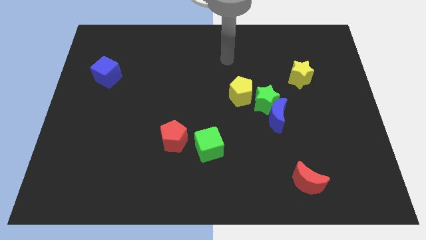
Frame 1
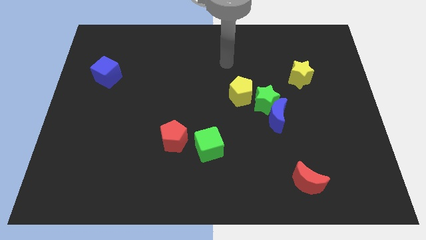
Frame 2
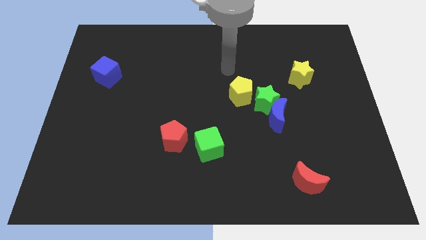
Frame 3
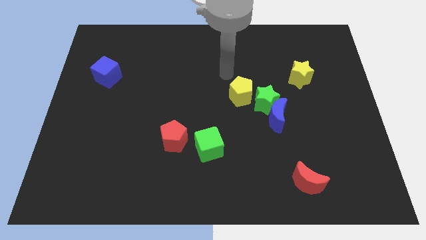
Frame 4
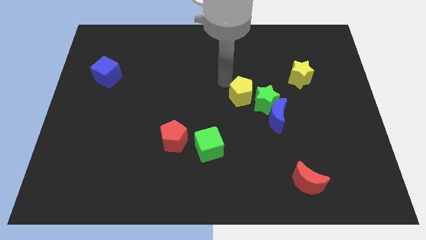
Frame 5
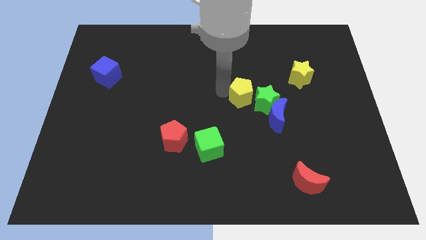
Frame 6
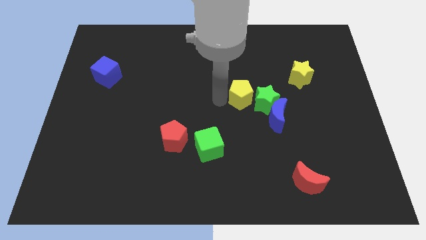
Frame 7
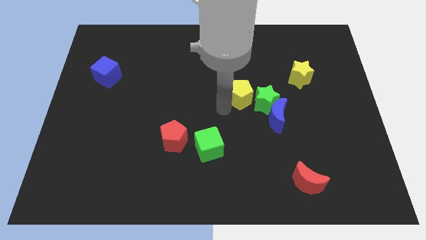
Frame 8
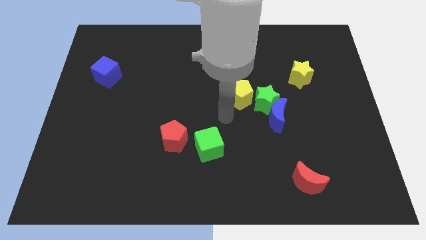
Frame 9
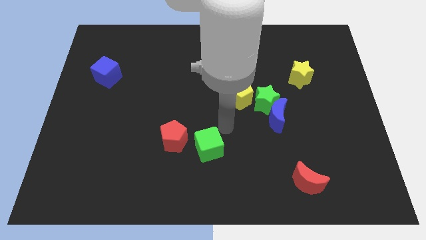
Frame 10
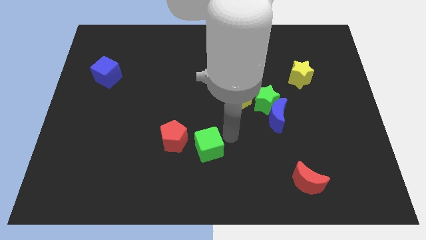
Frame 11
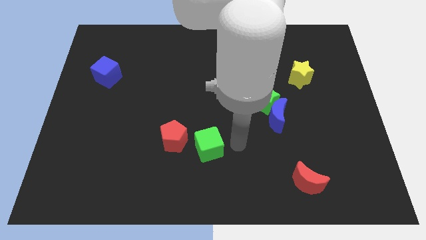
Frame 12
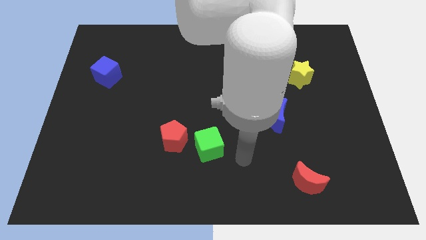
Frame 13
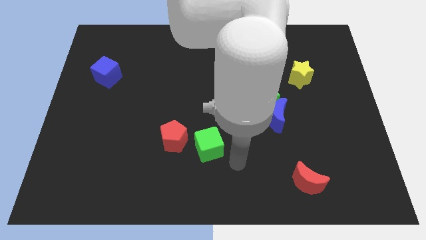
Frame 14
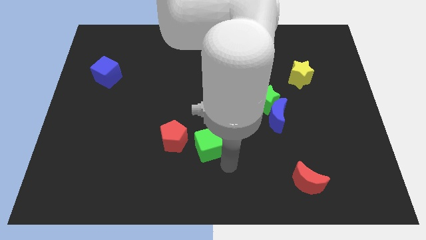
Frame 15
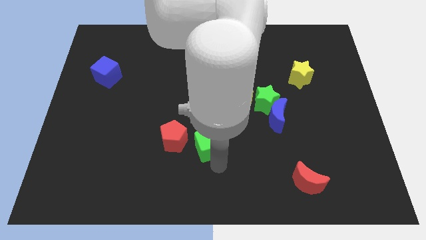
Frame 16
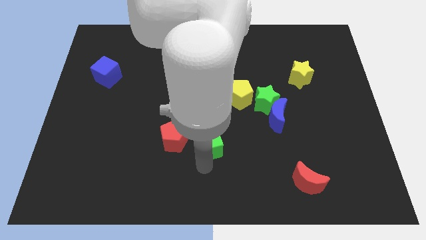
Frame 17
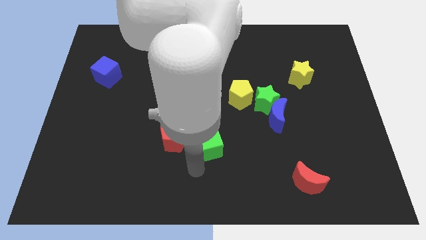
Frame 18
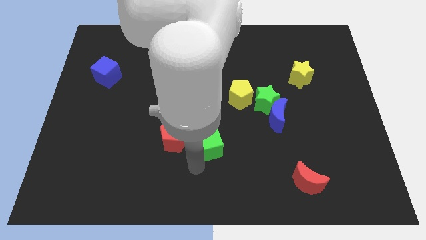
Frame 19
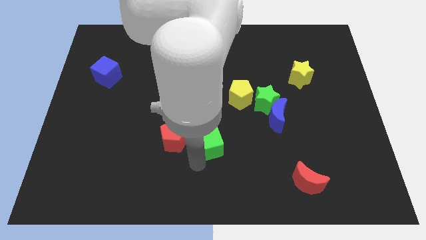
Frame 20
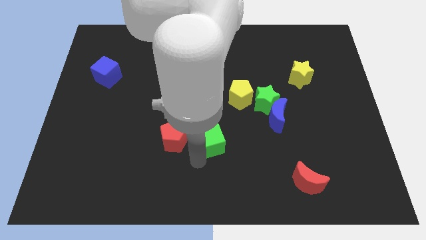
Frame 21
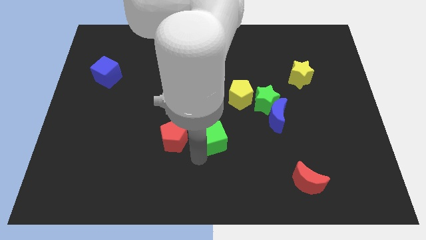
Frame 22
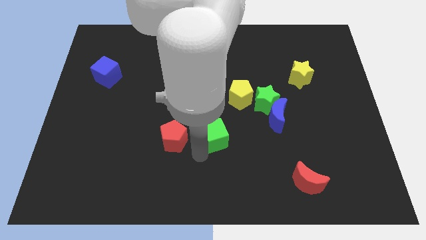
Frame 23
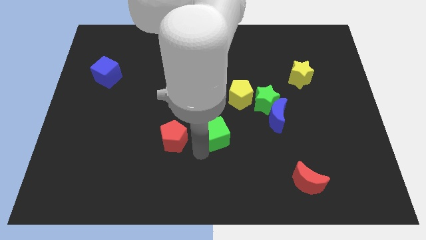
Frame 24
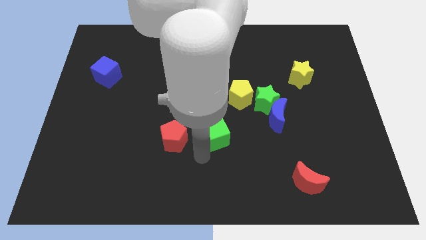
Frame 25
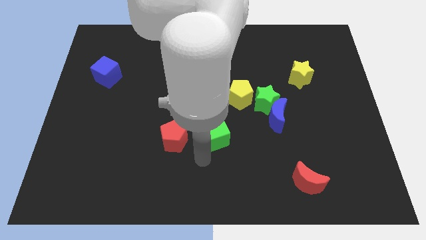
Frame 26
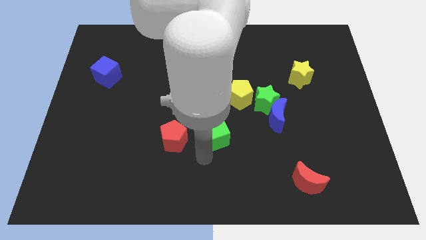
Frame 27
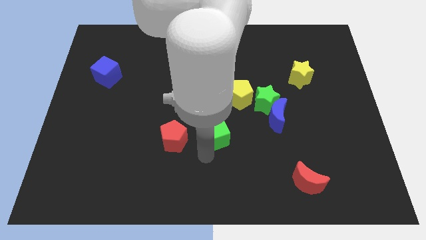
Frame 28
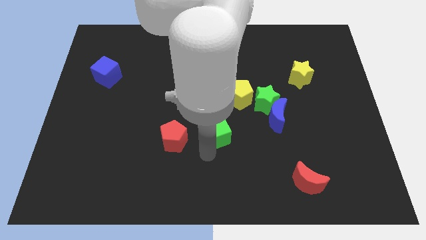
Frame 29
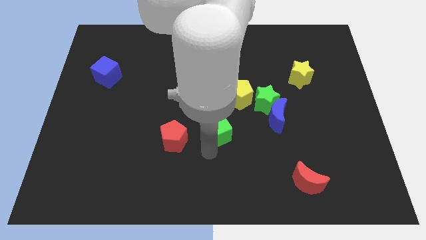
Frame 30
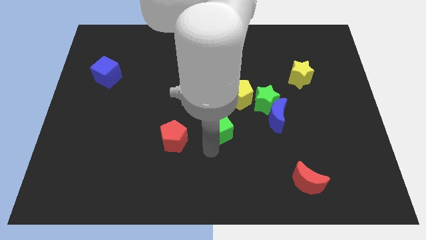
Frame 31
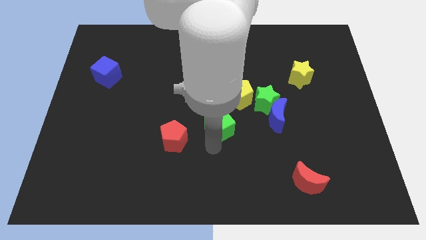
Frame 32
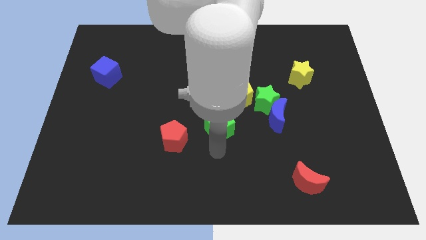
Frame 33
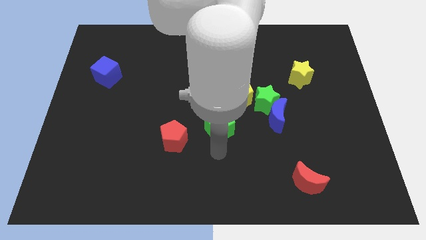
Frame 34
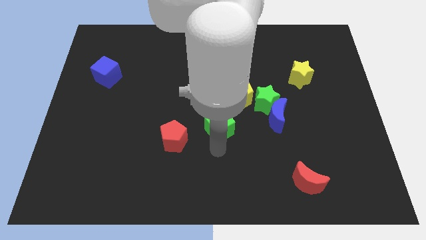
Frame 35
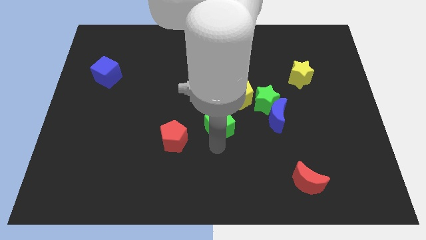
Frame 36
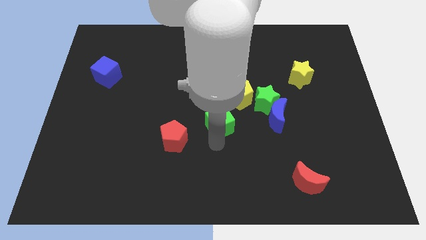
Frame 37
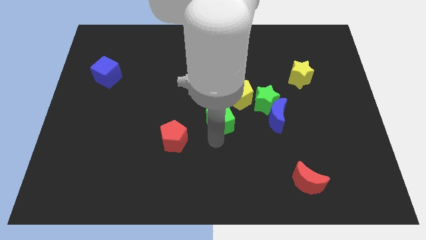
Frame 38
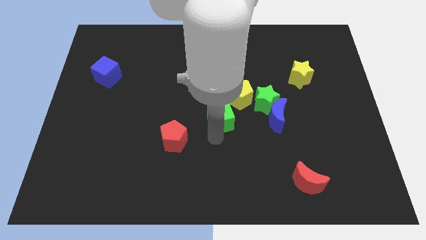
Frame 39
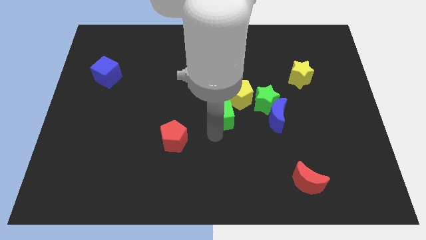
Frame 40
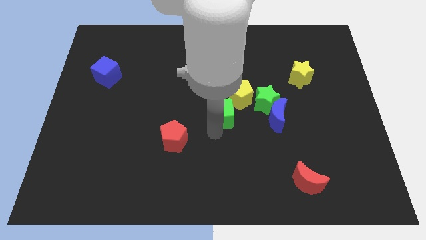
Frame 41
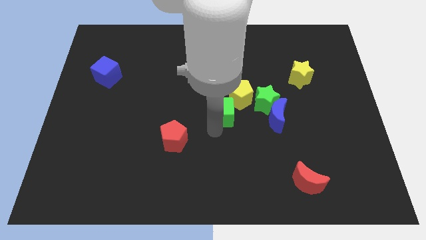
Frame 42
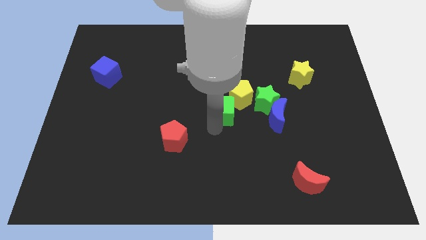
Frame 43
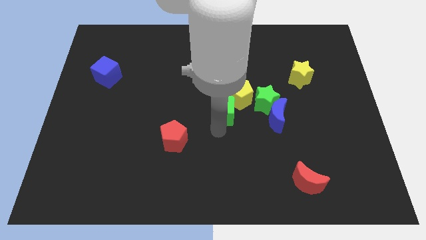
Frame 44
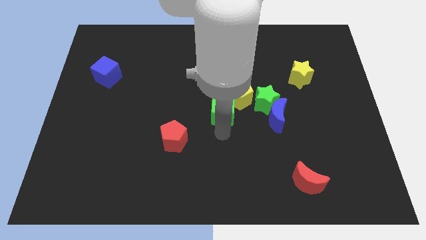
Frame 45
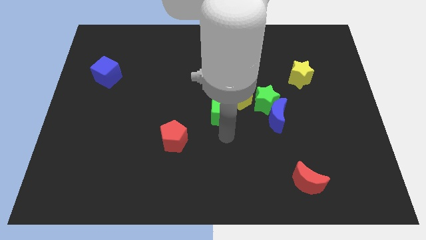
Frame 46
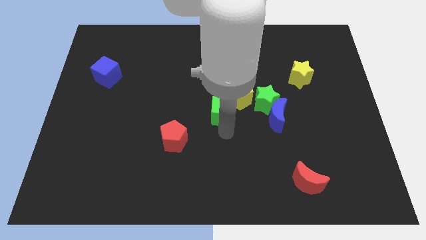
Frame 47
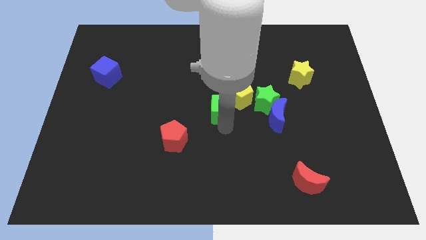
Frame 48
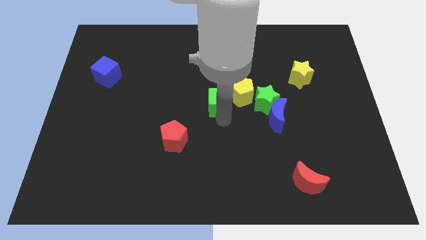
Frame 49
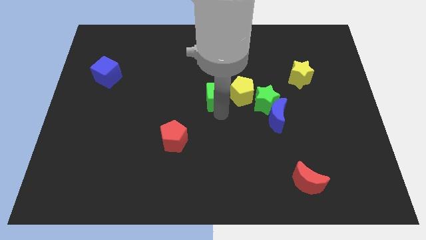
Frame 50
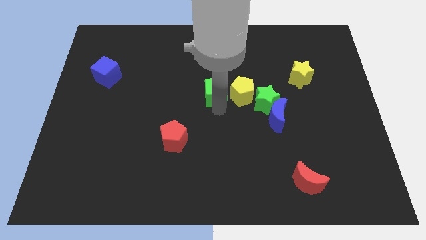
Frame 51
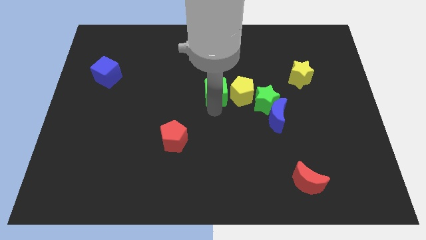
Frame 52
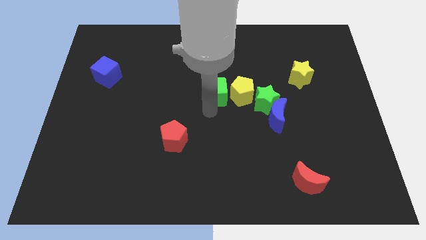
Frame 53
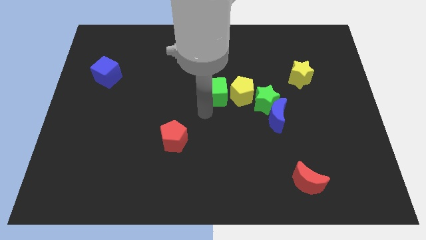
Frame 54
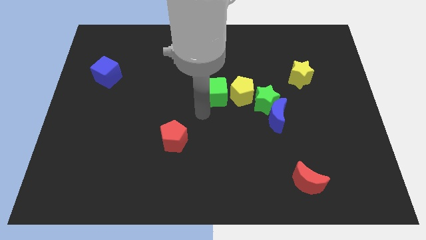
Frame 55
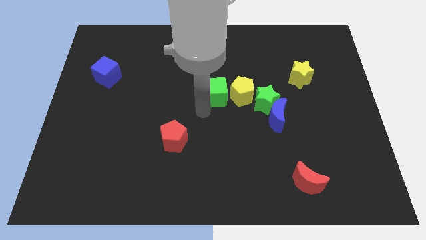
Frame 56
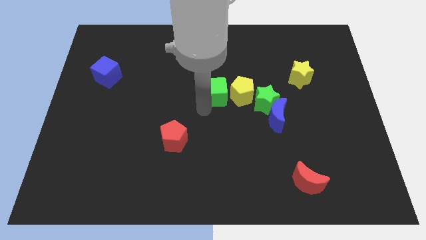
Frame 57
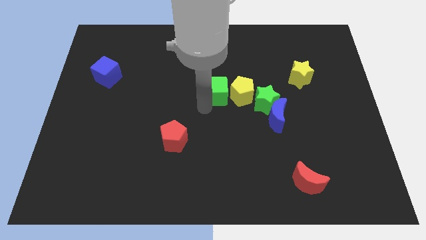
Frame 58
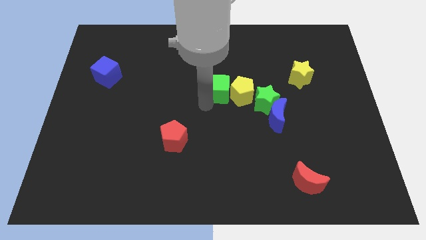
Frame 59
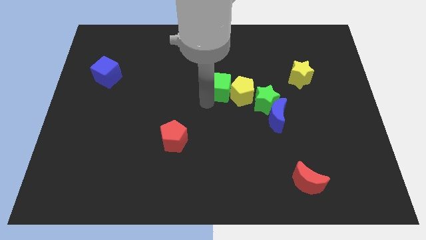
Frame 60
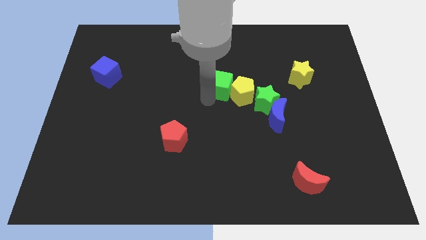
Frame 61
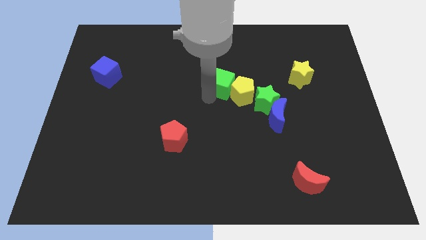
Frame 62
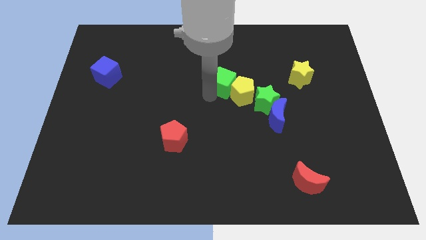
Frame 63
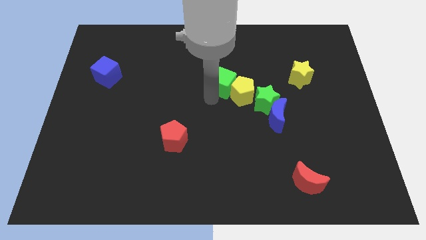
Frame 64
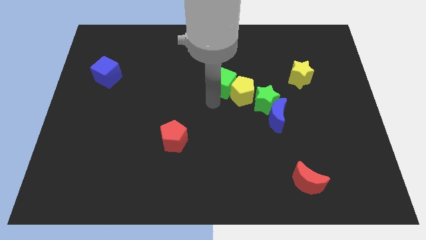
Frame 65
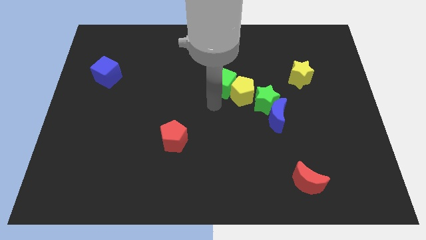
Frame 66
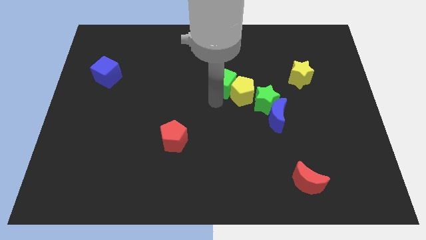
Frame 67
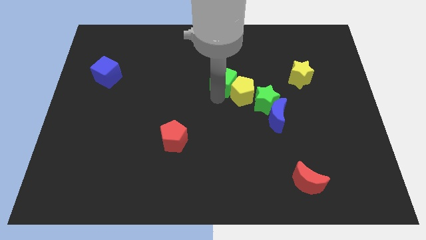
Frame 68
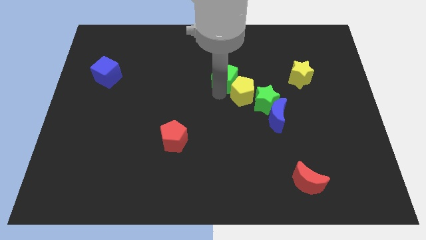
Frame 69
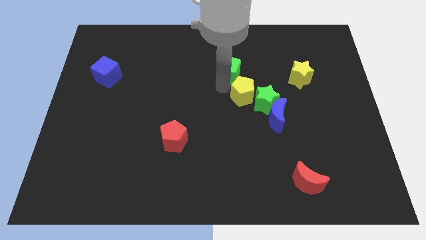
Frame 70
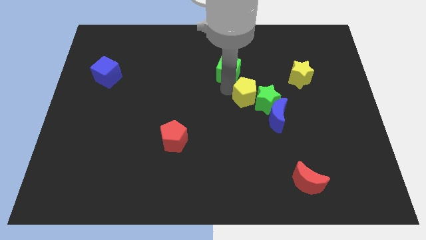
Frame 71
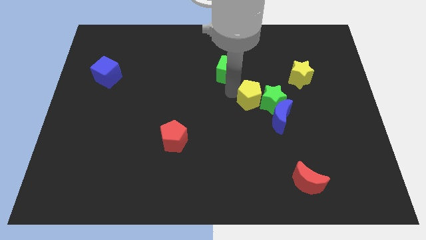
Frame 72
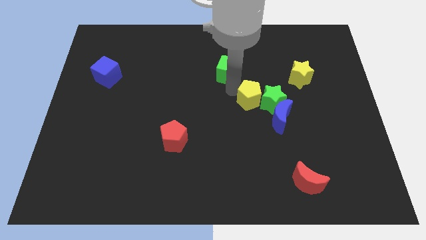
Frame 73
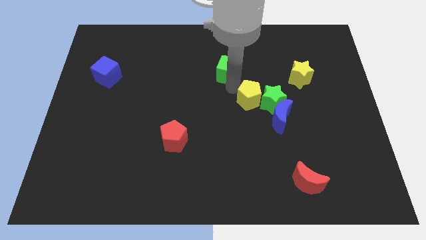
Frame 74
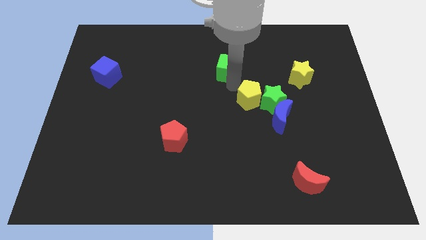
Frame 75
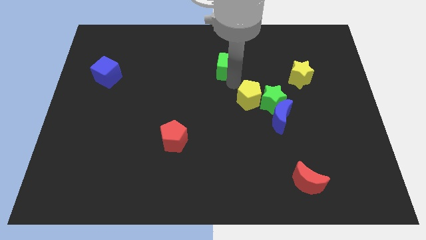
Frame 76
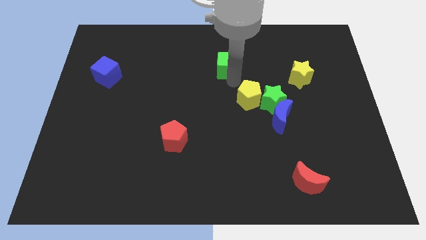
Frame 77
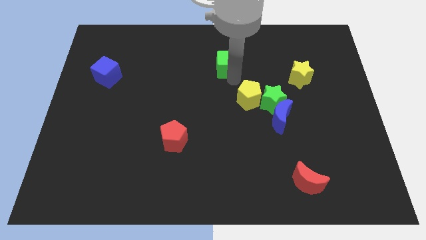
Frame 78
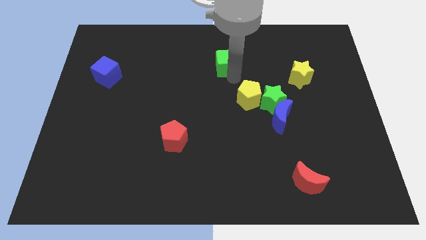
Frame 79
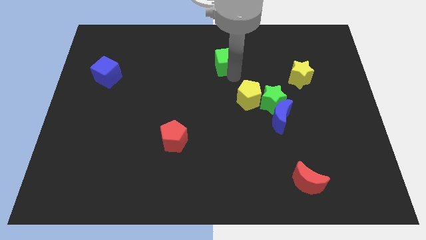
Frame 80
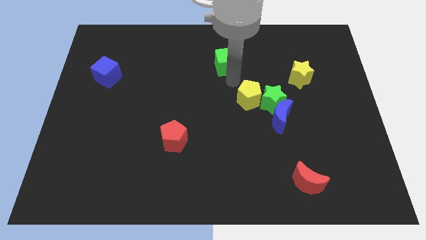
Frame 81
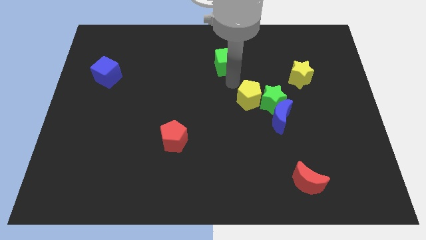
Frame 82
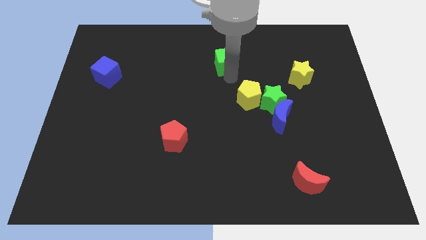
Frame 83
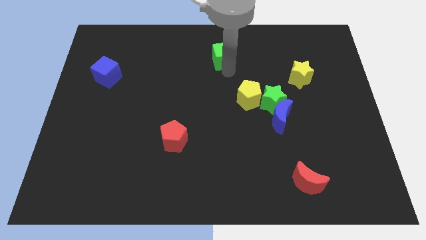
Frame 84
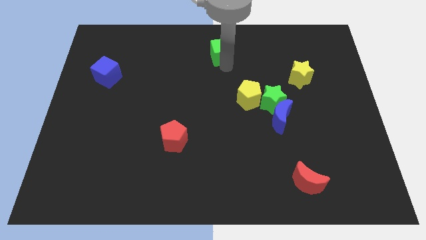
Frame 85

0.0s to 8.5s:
put the green cube to the top side
